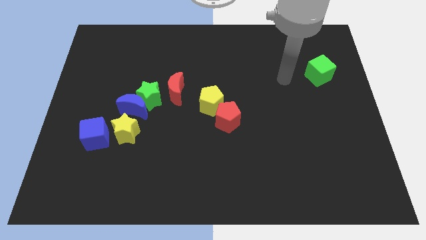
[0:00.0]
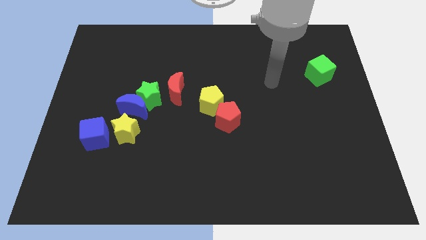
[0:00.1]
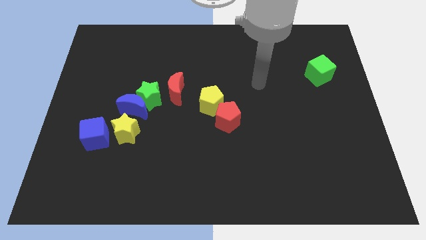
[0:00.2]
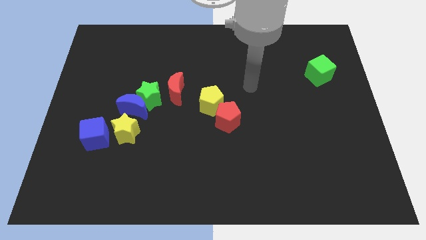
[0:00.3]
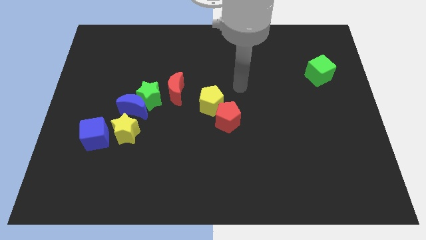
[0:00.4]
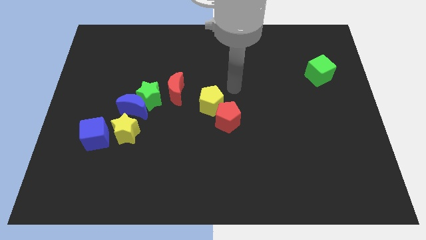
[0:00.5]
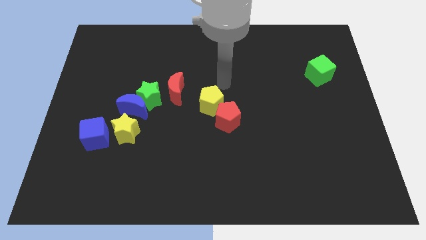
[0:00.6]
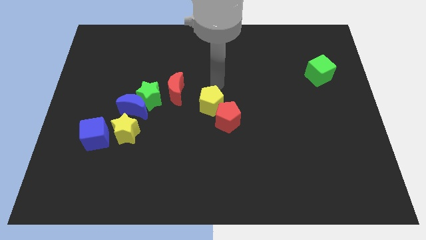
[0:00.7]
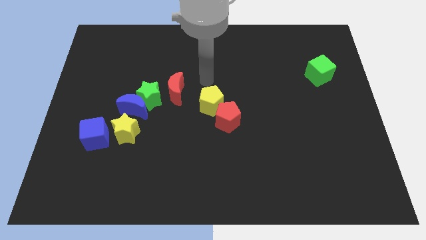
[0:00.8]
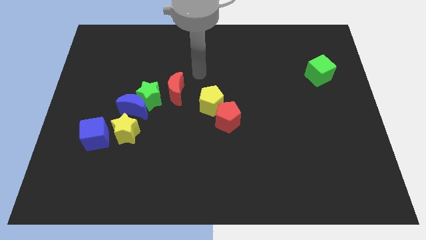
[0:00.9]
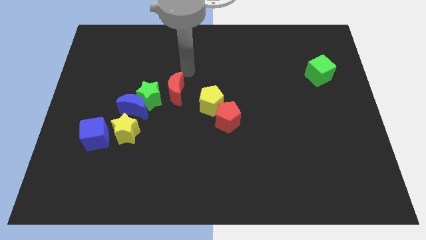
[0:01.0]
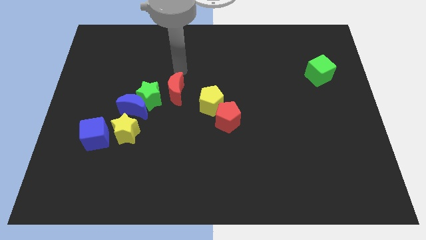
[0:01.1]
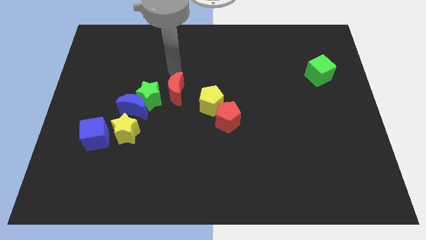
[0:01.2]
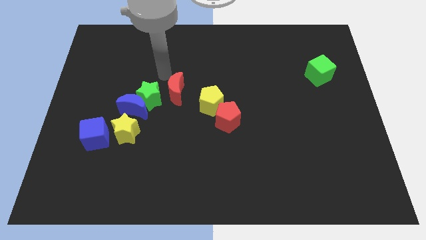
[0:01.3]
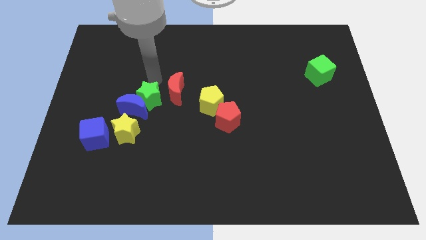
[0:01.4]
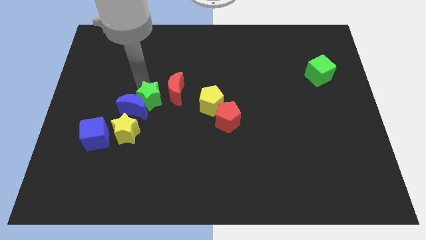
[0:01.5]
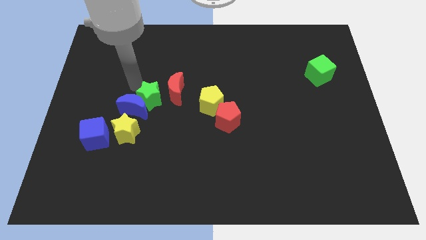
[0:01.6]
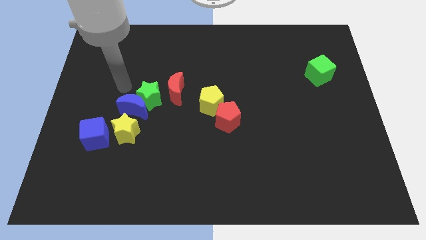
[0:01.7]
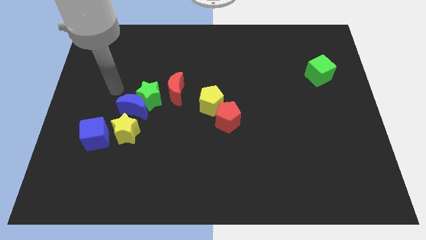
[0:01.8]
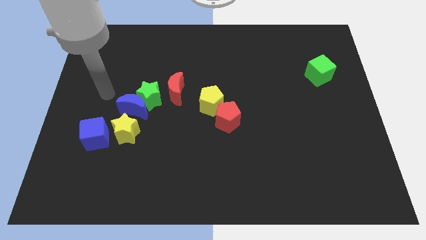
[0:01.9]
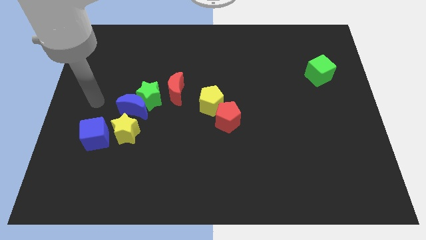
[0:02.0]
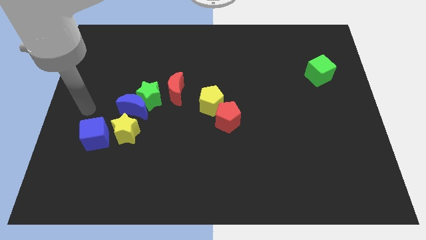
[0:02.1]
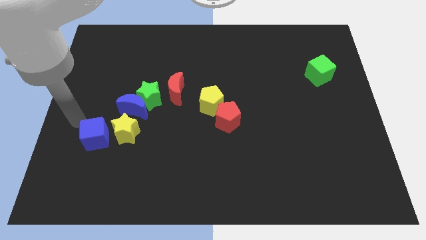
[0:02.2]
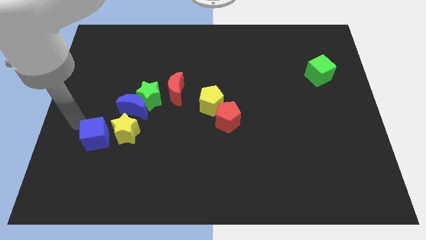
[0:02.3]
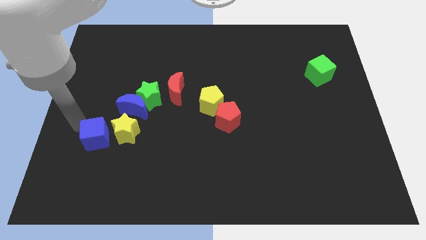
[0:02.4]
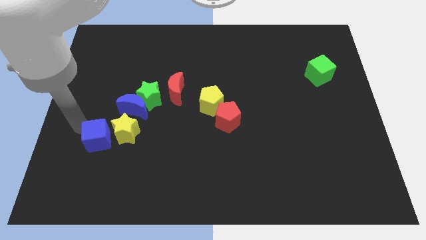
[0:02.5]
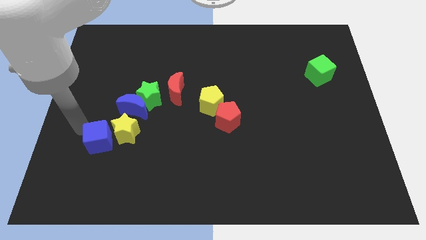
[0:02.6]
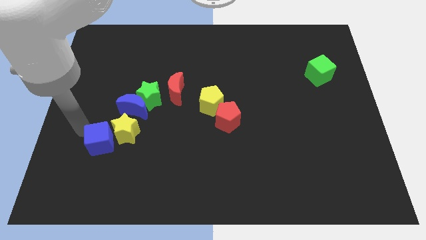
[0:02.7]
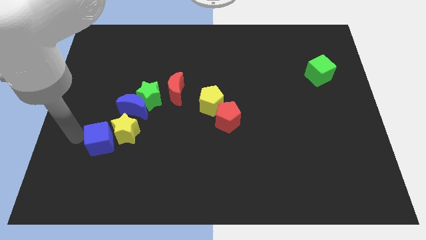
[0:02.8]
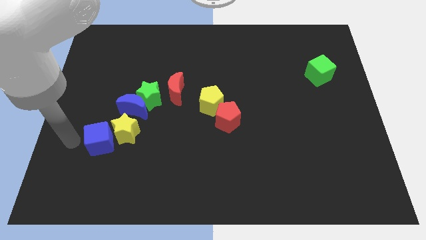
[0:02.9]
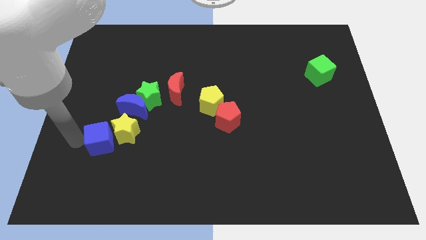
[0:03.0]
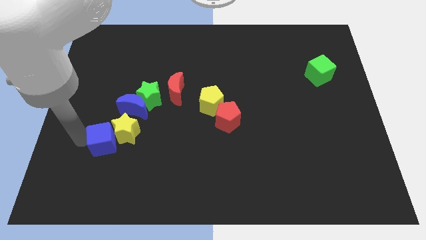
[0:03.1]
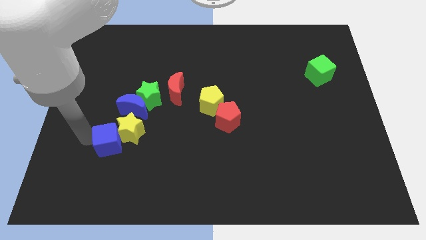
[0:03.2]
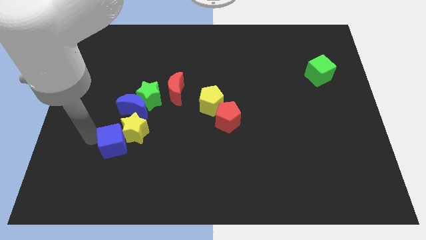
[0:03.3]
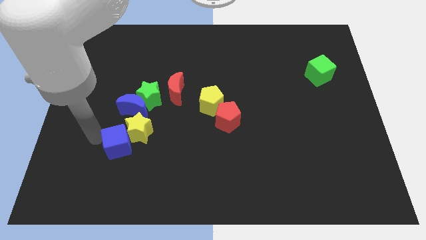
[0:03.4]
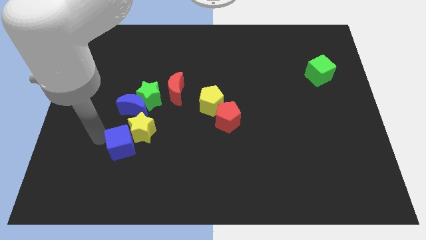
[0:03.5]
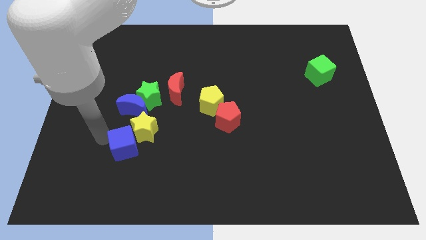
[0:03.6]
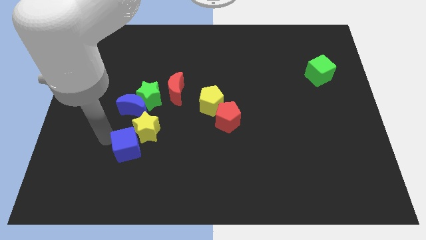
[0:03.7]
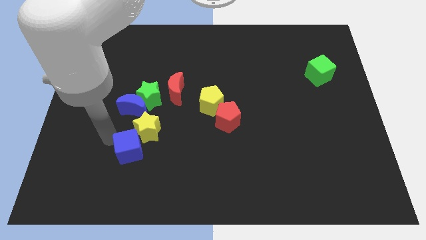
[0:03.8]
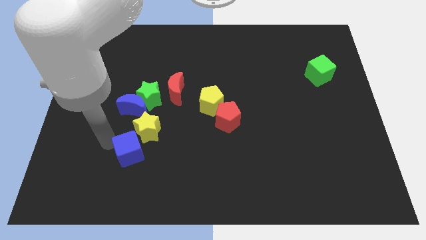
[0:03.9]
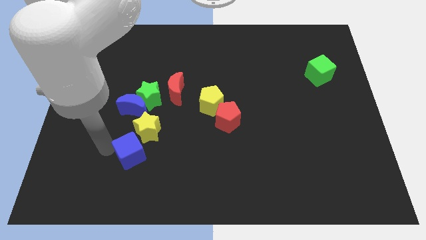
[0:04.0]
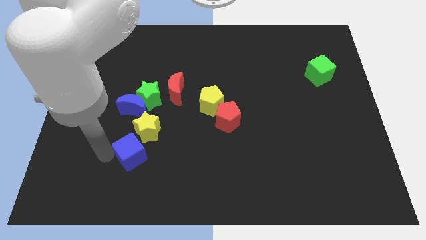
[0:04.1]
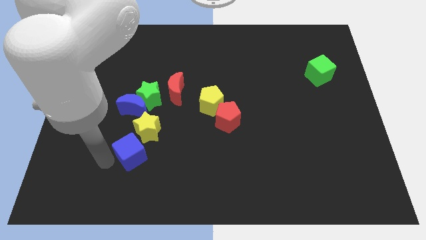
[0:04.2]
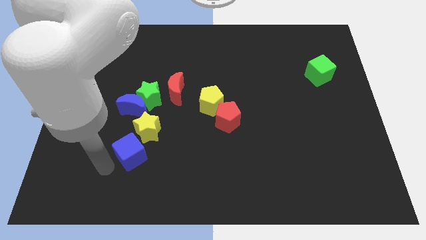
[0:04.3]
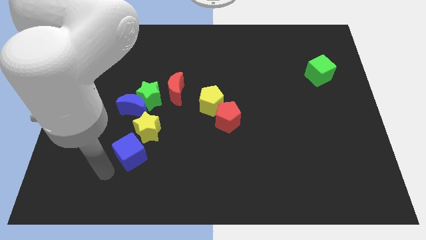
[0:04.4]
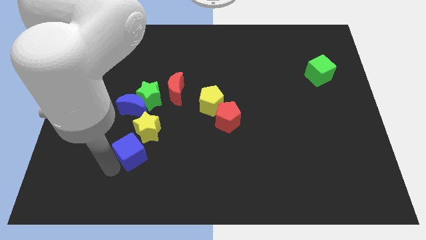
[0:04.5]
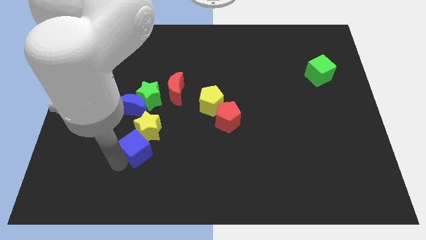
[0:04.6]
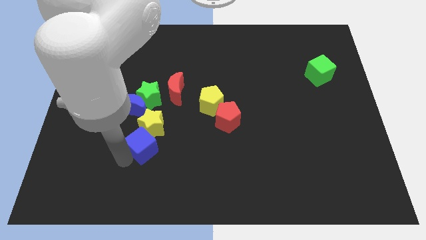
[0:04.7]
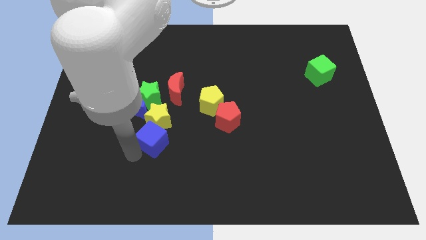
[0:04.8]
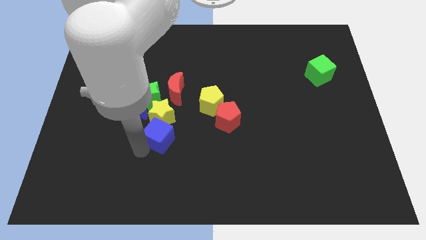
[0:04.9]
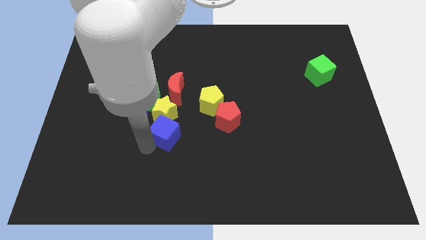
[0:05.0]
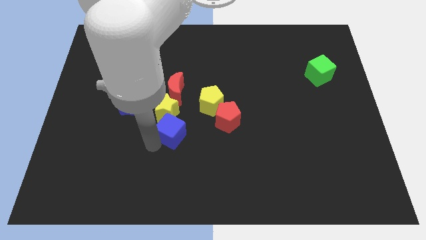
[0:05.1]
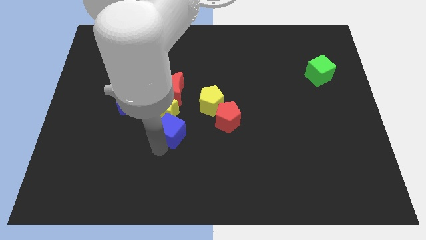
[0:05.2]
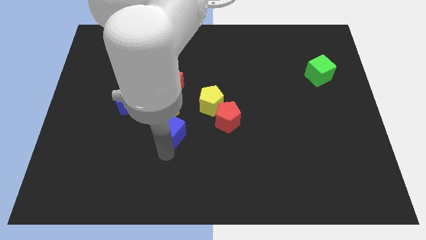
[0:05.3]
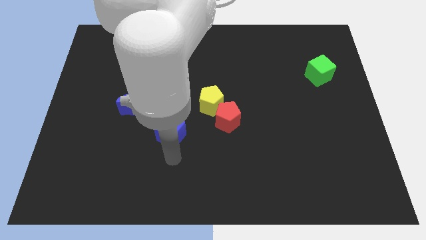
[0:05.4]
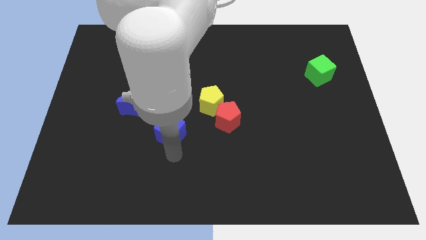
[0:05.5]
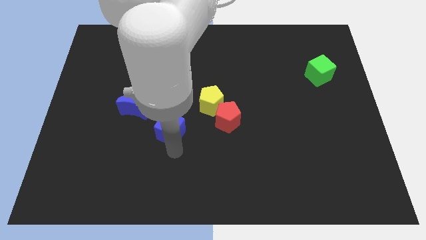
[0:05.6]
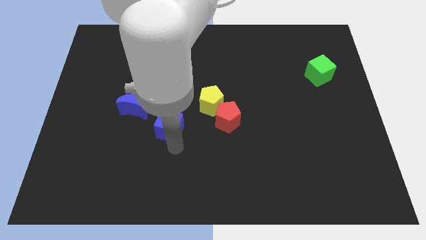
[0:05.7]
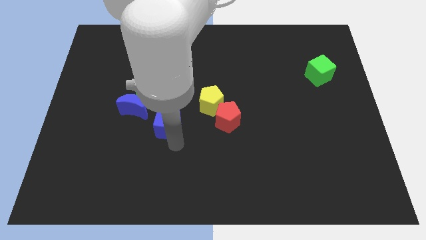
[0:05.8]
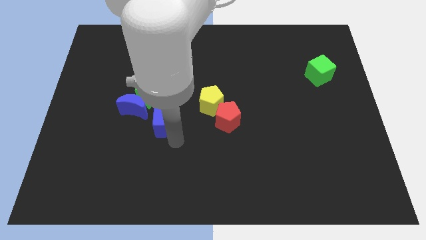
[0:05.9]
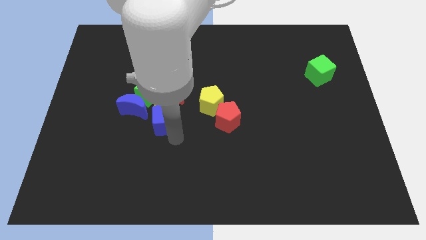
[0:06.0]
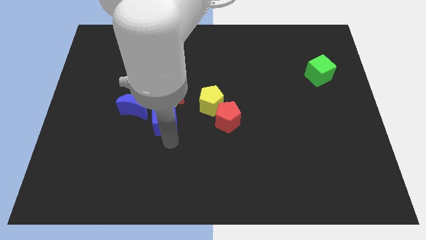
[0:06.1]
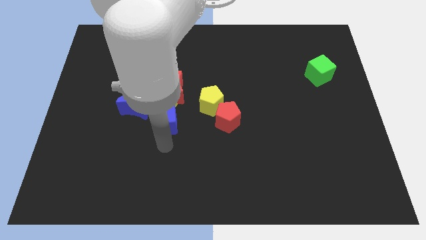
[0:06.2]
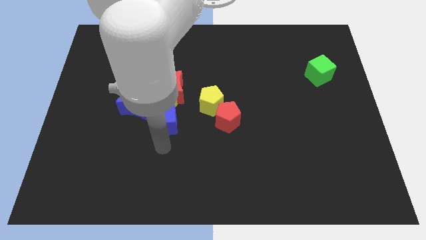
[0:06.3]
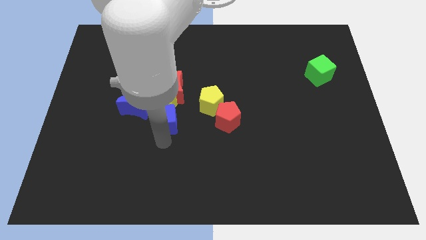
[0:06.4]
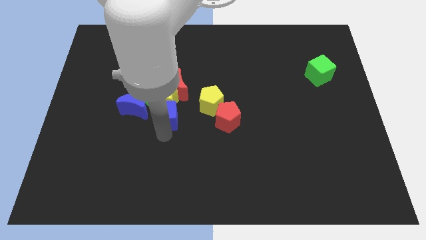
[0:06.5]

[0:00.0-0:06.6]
move the blue cube to the left side of the yellow pentagon
